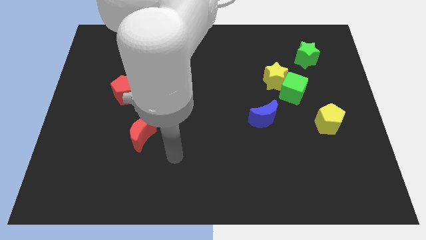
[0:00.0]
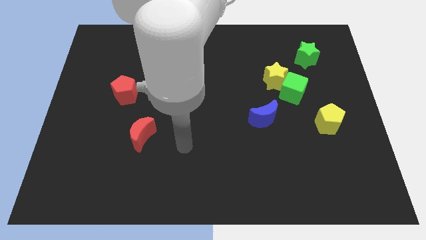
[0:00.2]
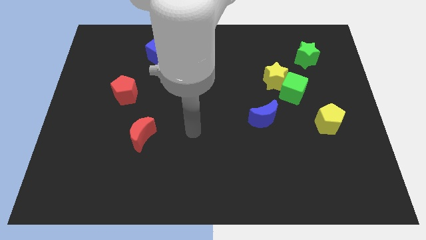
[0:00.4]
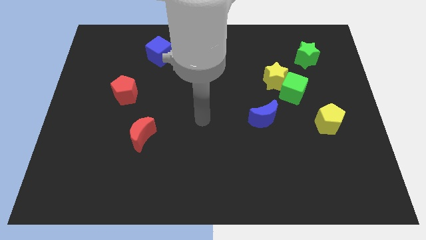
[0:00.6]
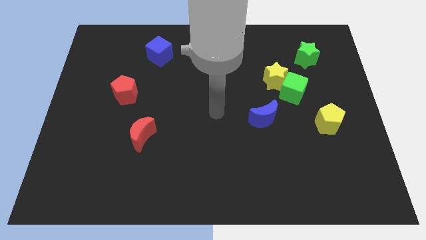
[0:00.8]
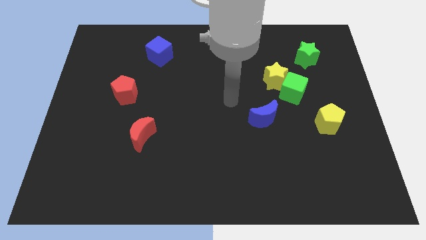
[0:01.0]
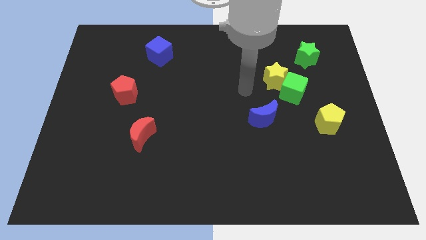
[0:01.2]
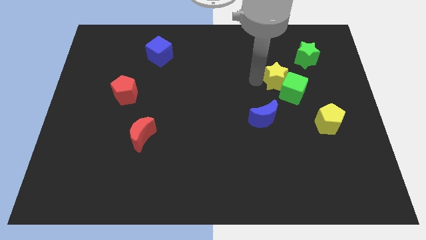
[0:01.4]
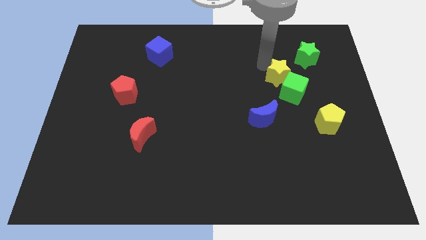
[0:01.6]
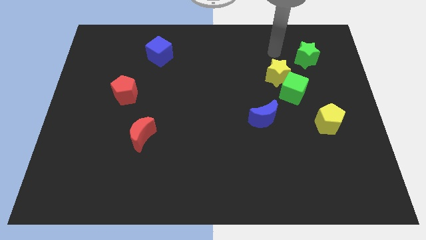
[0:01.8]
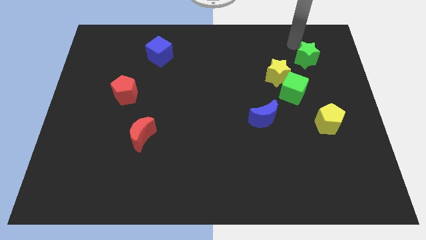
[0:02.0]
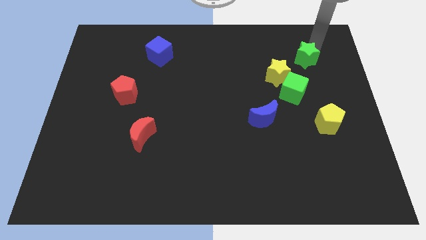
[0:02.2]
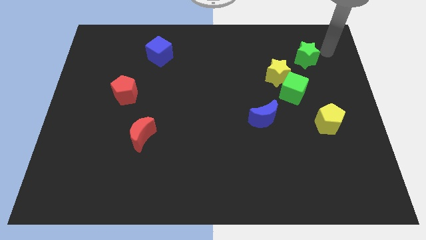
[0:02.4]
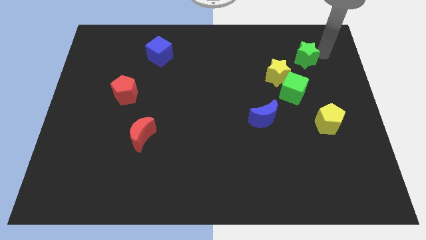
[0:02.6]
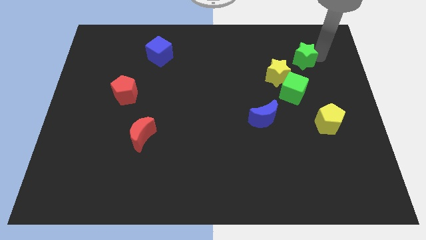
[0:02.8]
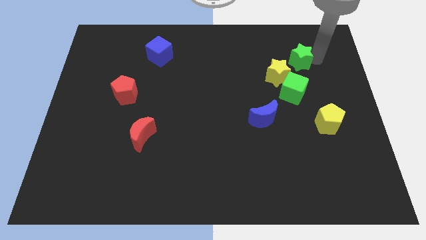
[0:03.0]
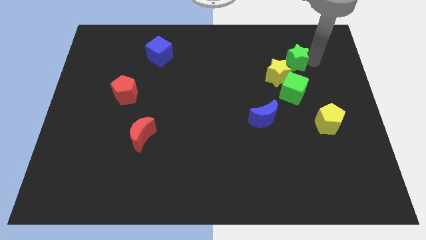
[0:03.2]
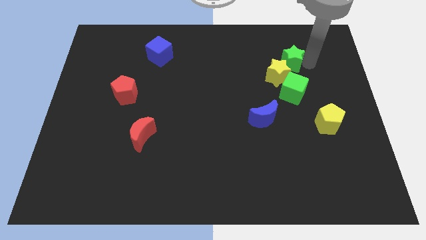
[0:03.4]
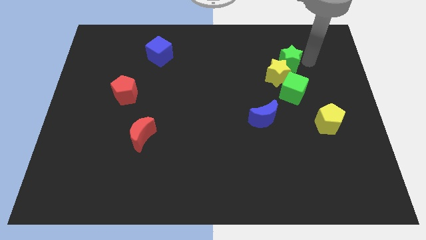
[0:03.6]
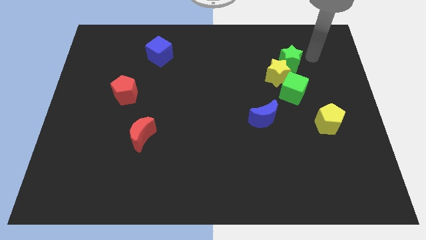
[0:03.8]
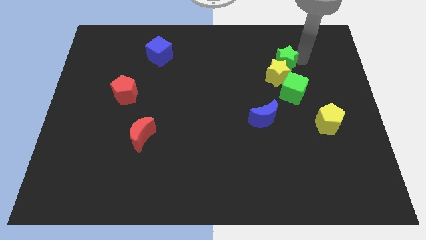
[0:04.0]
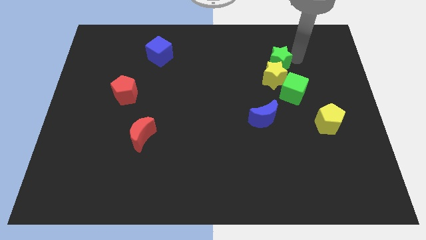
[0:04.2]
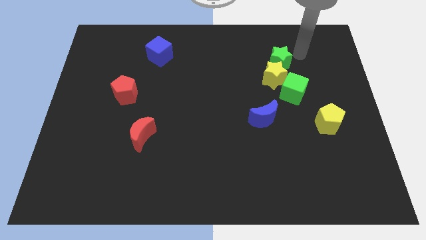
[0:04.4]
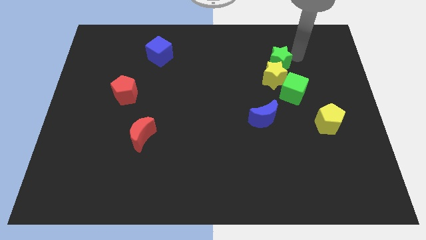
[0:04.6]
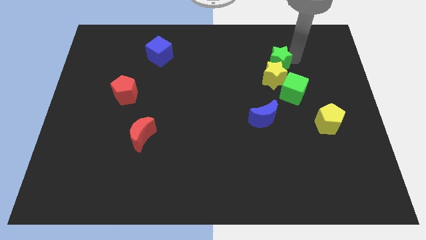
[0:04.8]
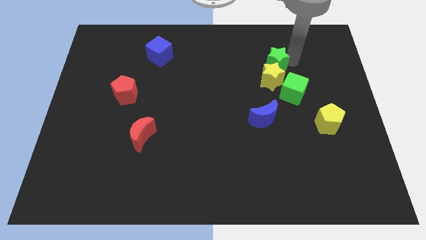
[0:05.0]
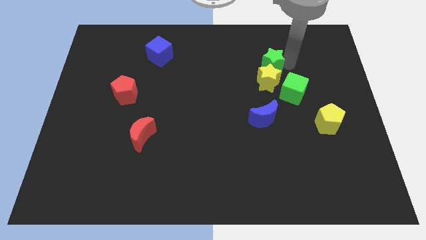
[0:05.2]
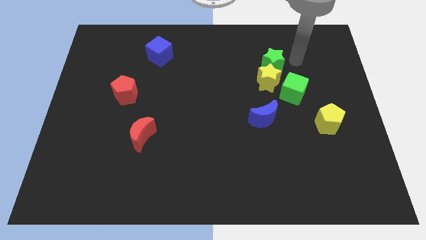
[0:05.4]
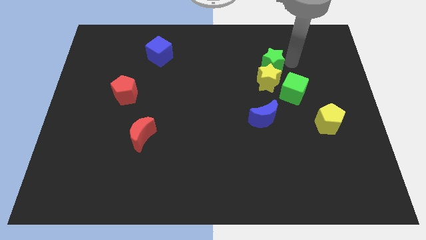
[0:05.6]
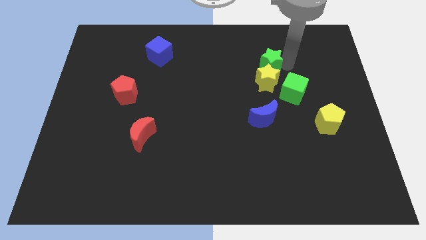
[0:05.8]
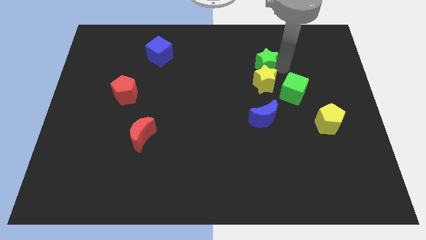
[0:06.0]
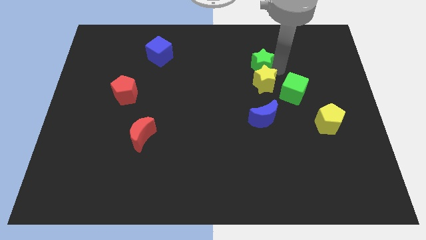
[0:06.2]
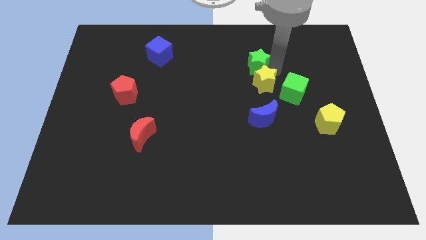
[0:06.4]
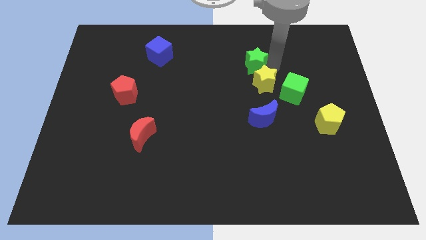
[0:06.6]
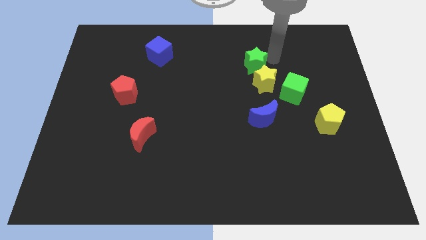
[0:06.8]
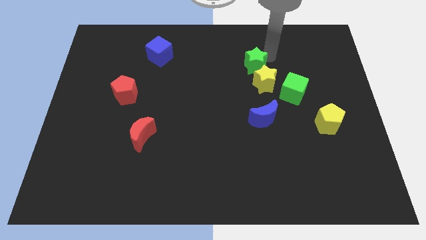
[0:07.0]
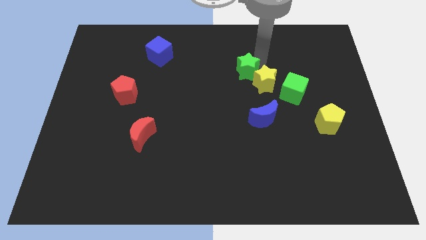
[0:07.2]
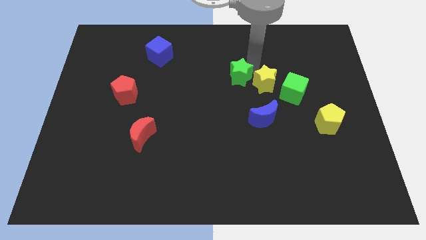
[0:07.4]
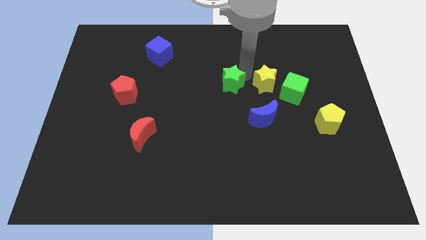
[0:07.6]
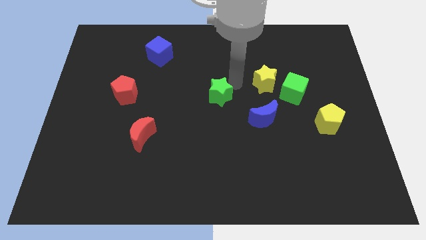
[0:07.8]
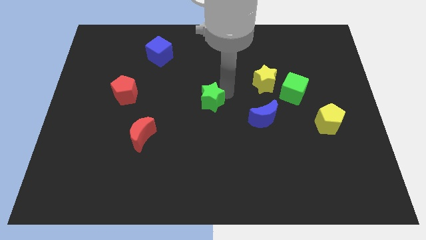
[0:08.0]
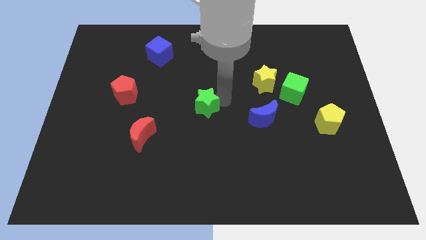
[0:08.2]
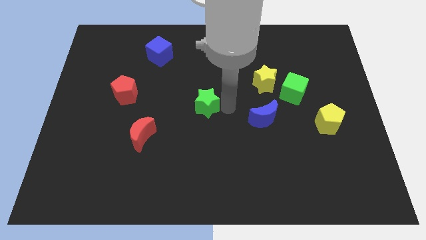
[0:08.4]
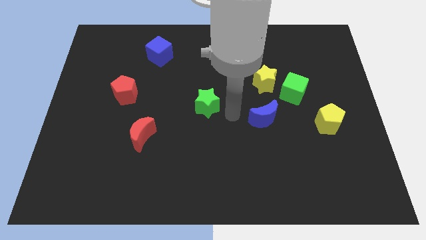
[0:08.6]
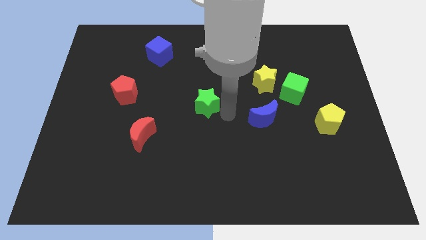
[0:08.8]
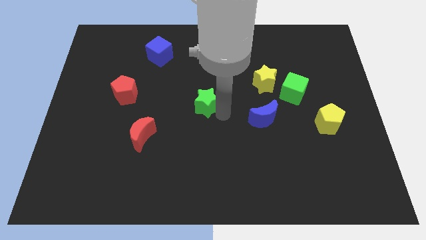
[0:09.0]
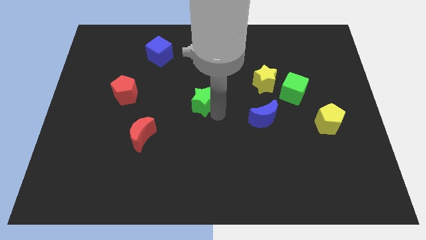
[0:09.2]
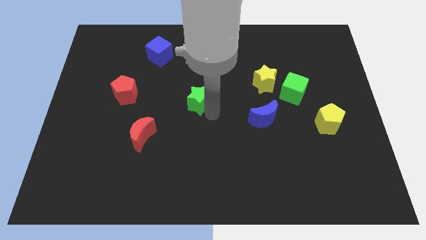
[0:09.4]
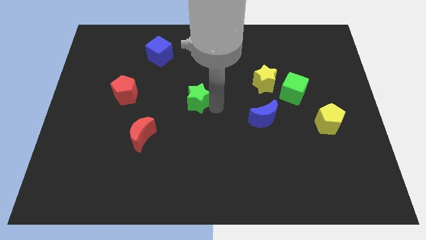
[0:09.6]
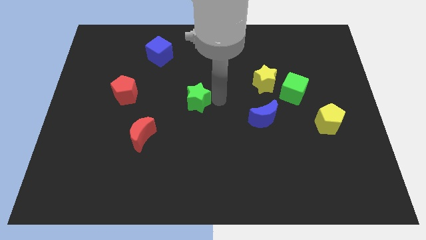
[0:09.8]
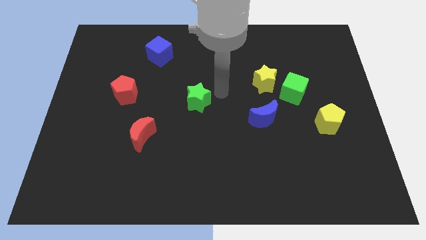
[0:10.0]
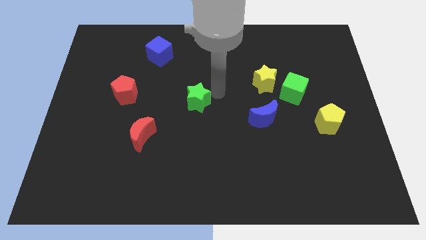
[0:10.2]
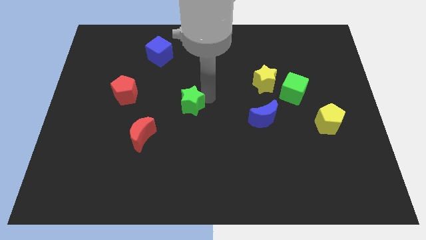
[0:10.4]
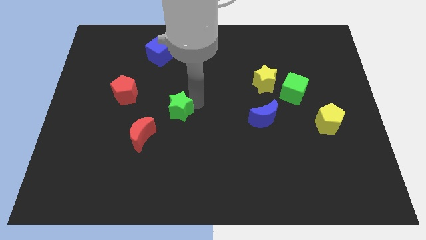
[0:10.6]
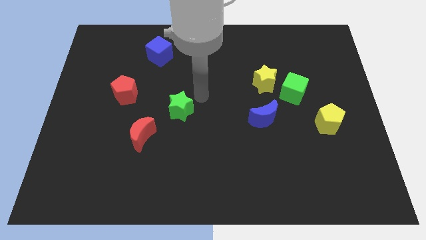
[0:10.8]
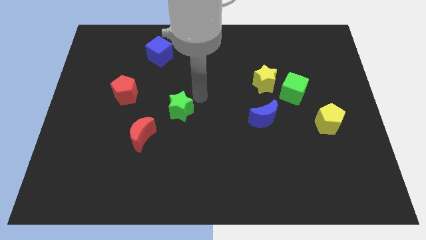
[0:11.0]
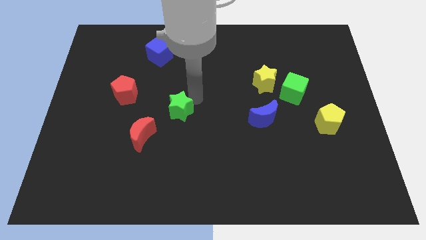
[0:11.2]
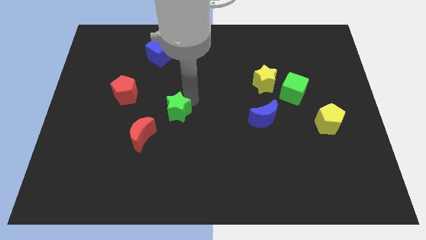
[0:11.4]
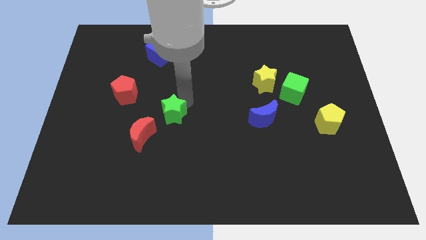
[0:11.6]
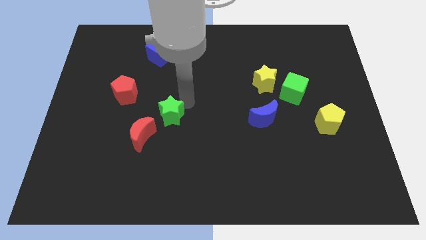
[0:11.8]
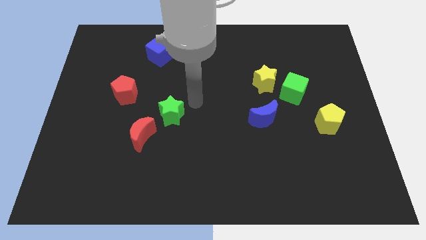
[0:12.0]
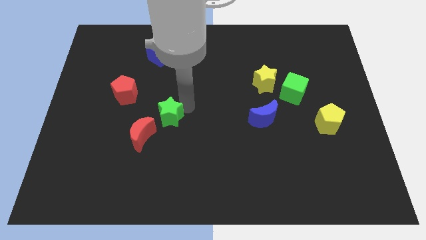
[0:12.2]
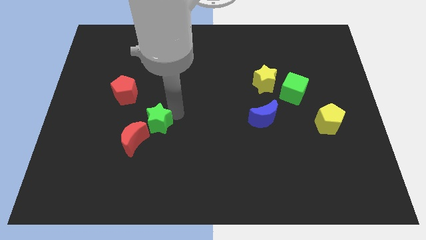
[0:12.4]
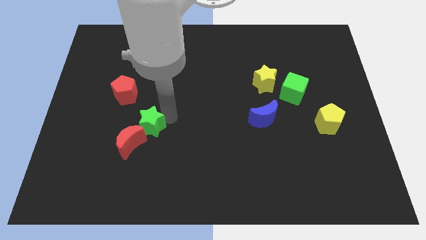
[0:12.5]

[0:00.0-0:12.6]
slide the green star close to the red moon
